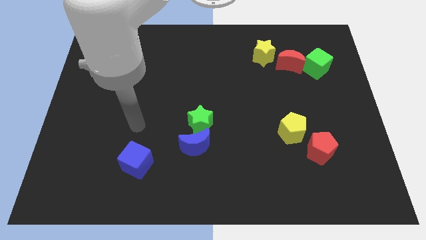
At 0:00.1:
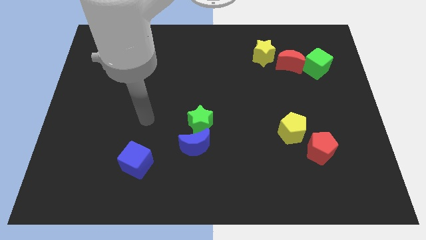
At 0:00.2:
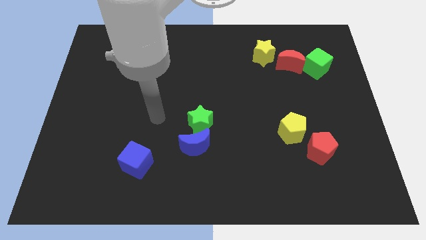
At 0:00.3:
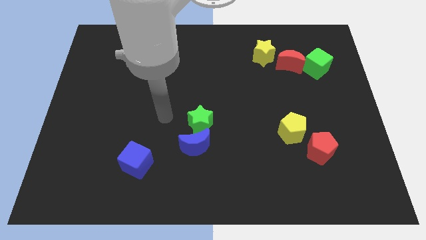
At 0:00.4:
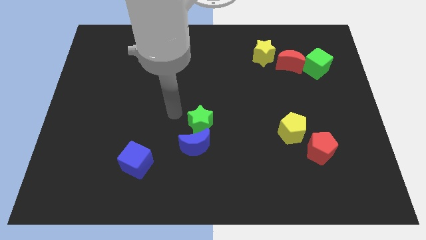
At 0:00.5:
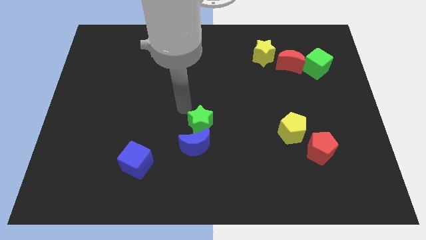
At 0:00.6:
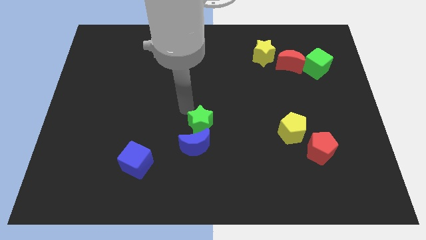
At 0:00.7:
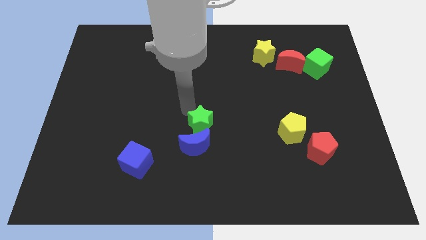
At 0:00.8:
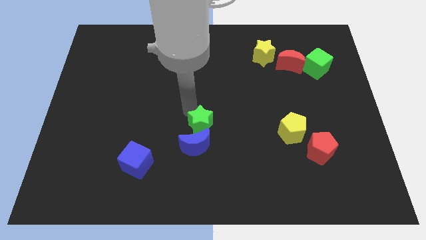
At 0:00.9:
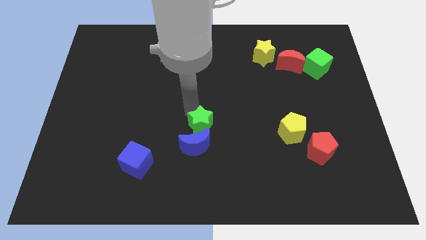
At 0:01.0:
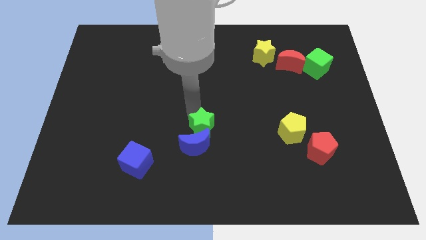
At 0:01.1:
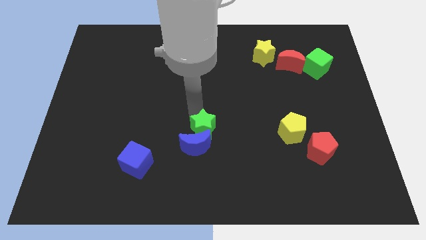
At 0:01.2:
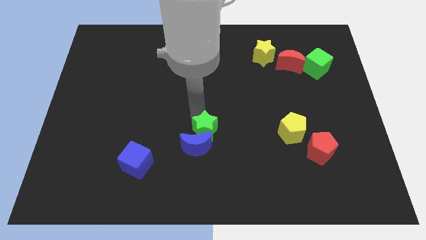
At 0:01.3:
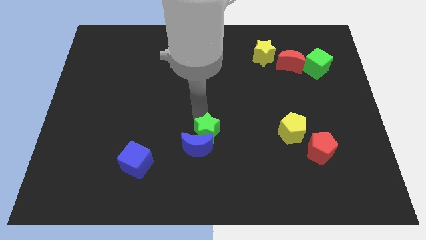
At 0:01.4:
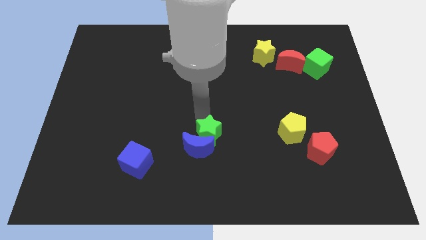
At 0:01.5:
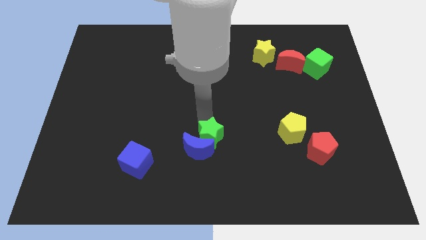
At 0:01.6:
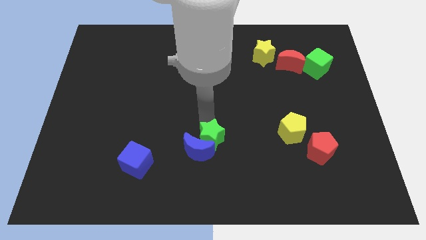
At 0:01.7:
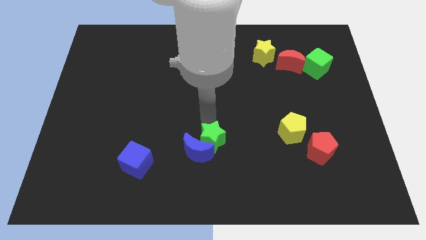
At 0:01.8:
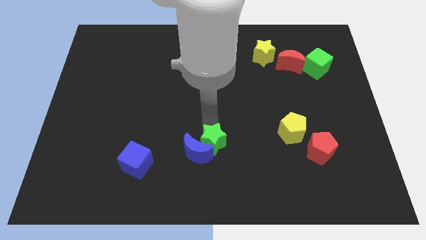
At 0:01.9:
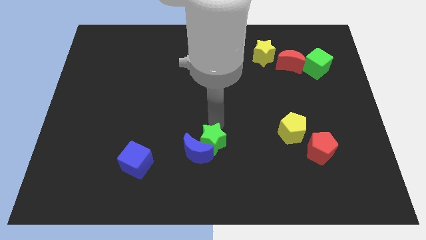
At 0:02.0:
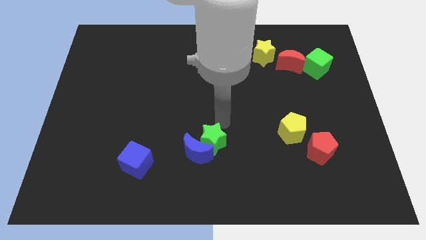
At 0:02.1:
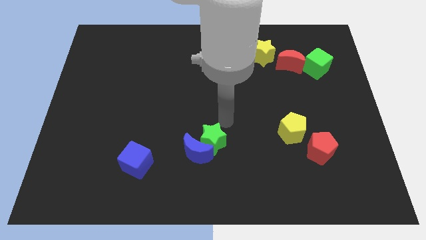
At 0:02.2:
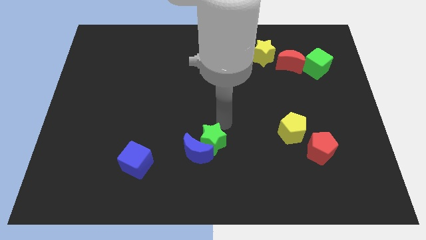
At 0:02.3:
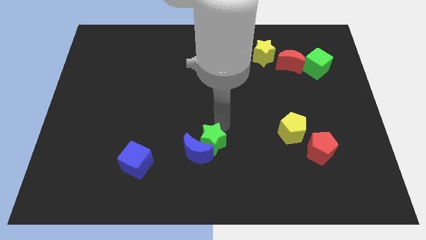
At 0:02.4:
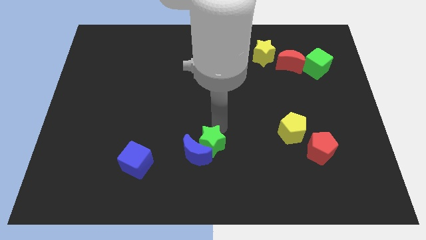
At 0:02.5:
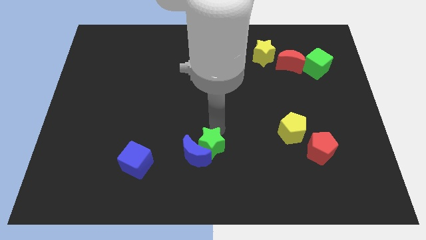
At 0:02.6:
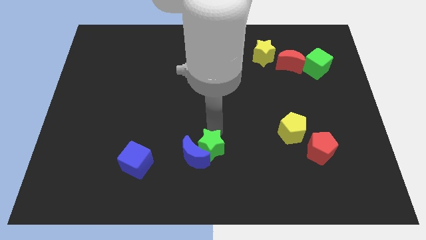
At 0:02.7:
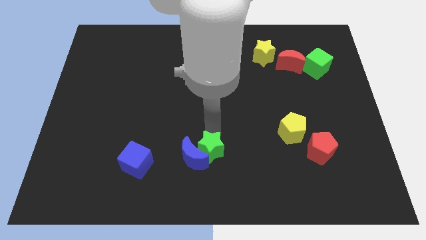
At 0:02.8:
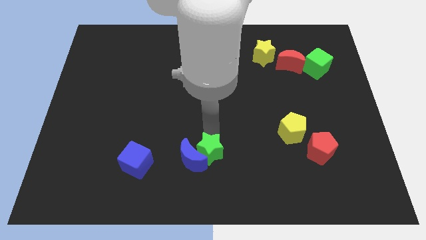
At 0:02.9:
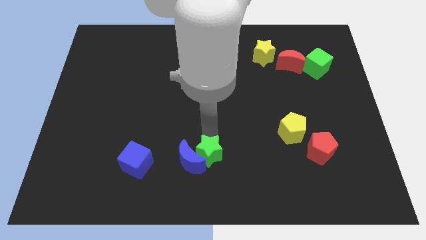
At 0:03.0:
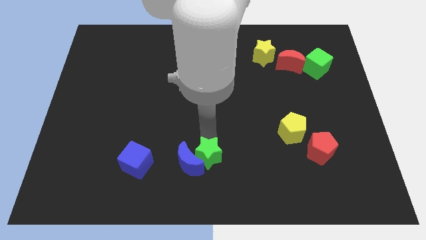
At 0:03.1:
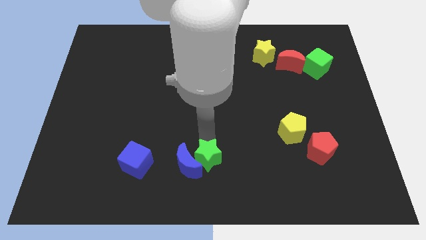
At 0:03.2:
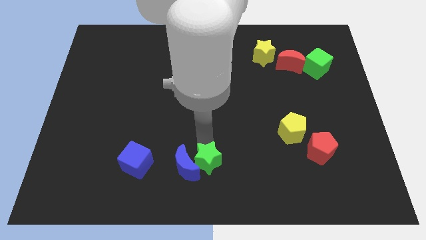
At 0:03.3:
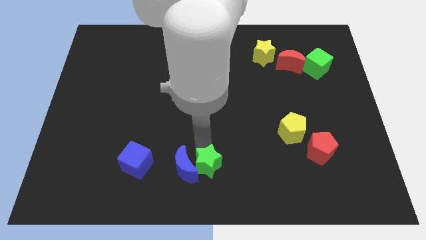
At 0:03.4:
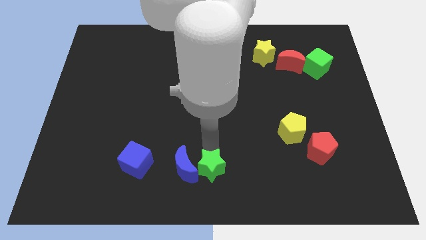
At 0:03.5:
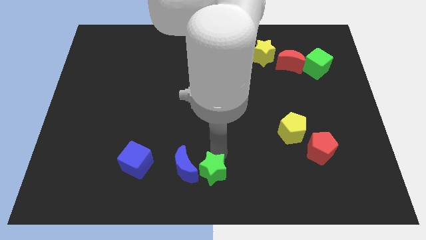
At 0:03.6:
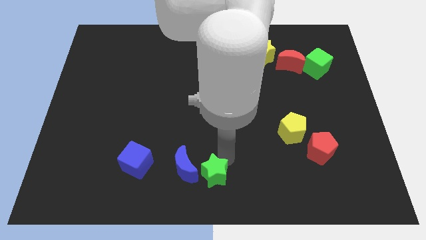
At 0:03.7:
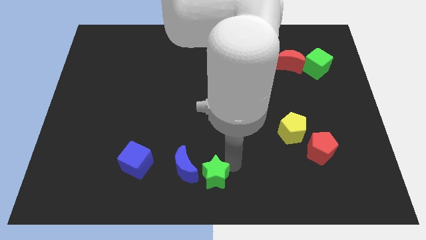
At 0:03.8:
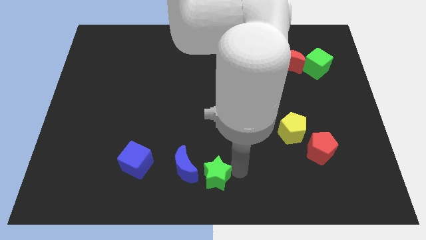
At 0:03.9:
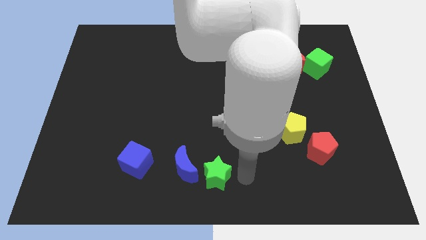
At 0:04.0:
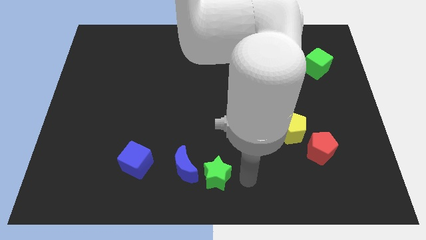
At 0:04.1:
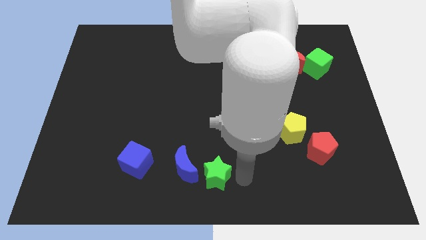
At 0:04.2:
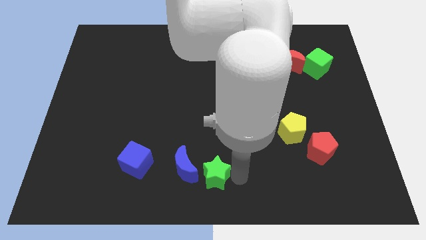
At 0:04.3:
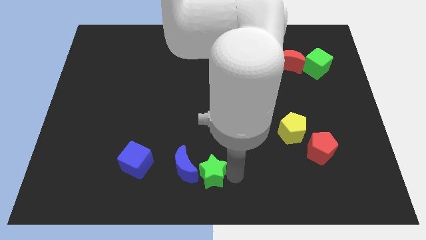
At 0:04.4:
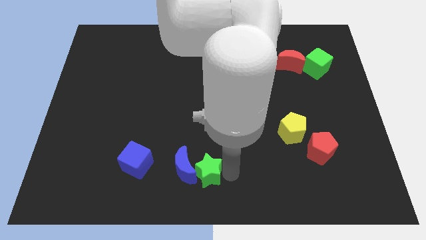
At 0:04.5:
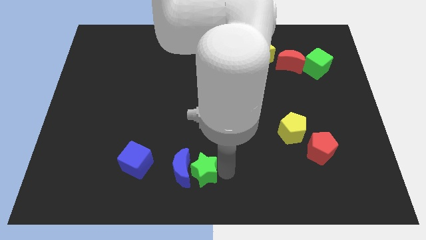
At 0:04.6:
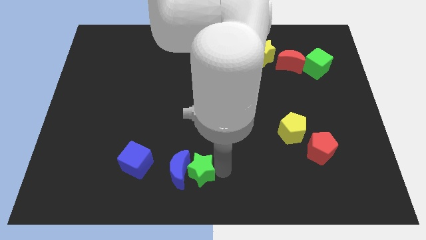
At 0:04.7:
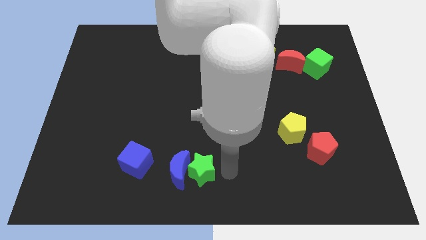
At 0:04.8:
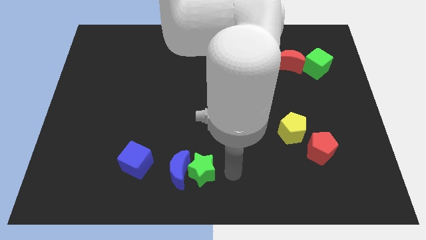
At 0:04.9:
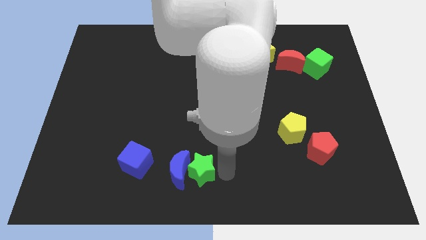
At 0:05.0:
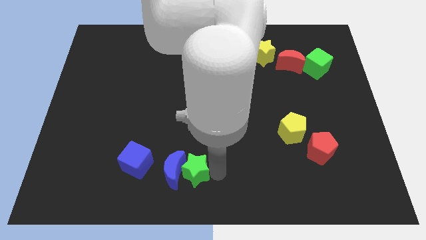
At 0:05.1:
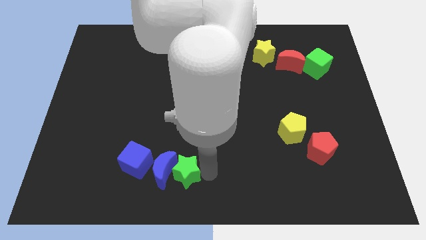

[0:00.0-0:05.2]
move the green star down and left somewhat

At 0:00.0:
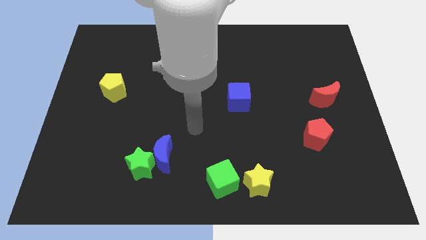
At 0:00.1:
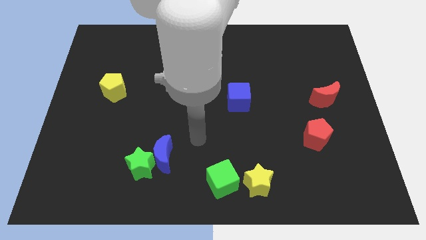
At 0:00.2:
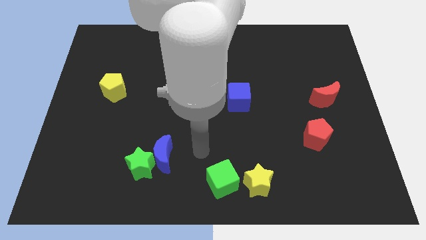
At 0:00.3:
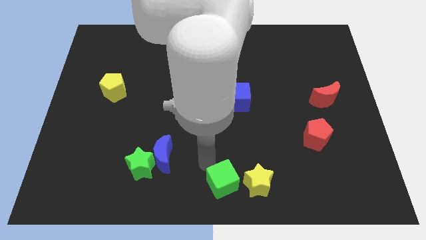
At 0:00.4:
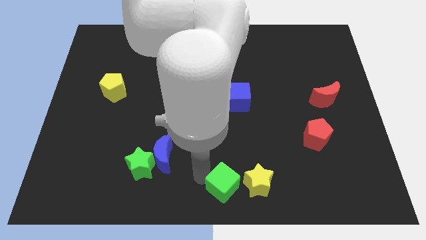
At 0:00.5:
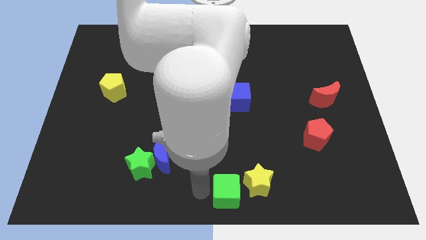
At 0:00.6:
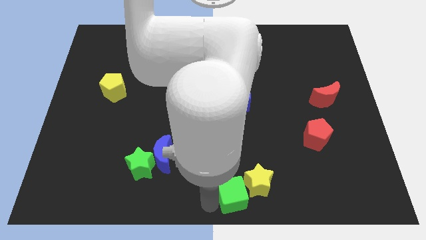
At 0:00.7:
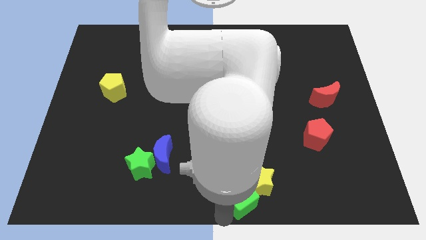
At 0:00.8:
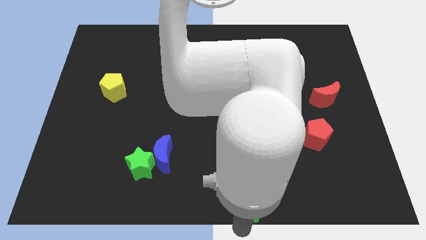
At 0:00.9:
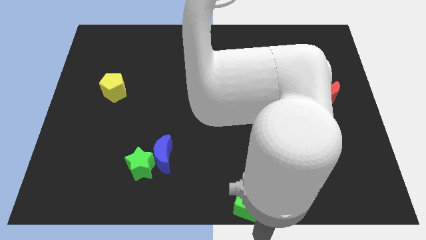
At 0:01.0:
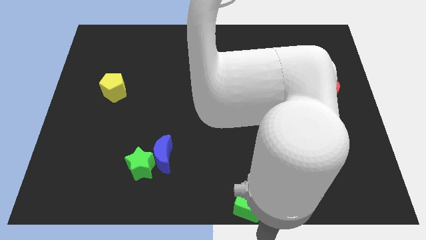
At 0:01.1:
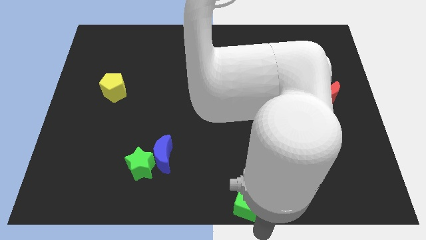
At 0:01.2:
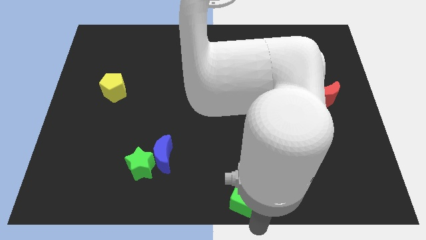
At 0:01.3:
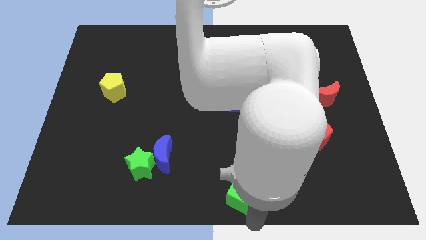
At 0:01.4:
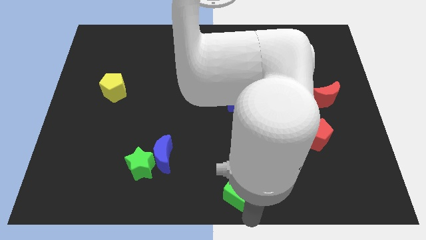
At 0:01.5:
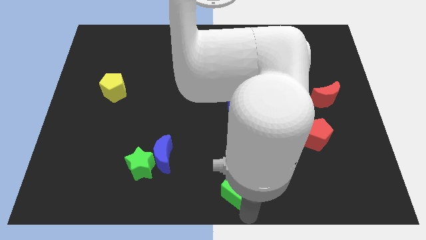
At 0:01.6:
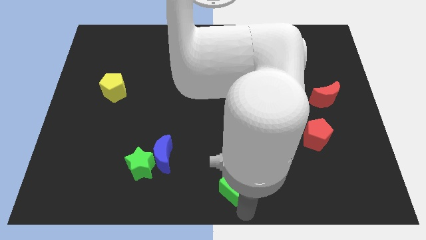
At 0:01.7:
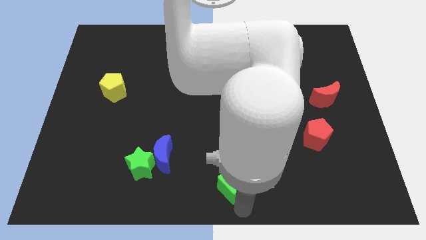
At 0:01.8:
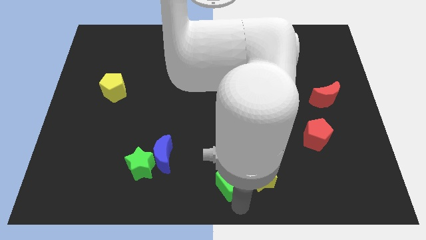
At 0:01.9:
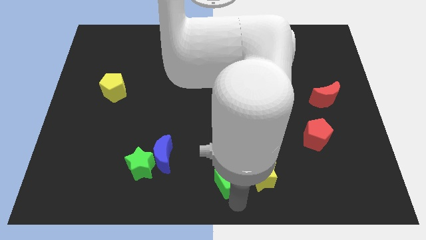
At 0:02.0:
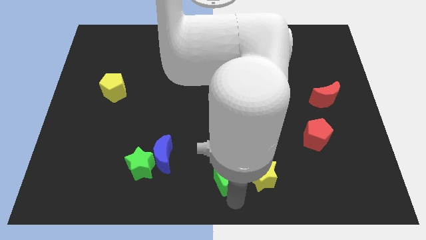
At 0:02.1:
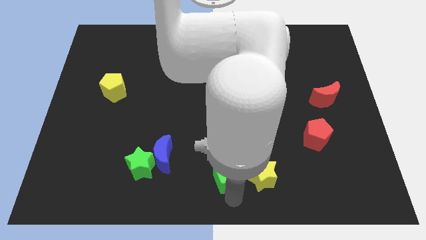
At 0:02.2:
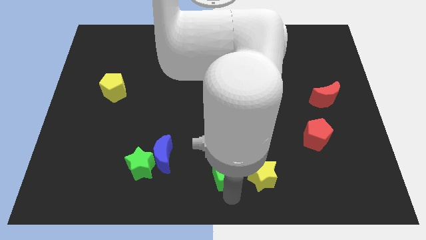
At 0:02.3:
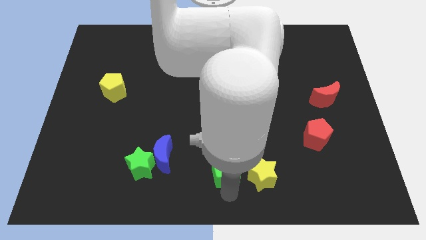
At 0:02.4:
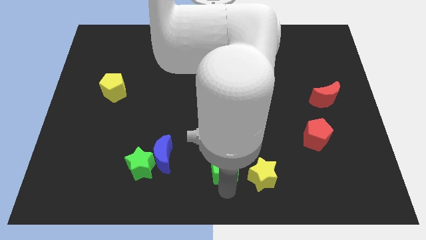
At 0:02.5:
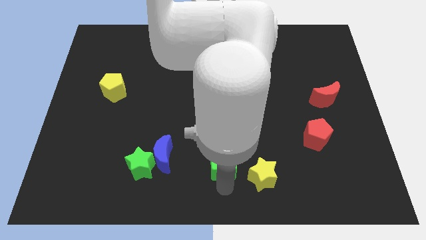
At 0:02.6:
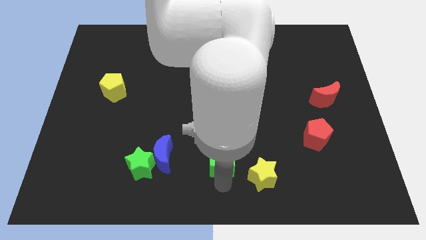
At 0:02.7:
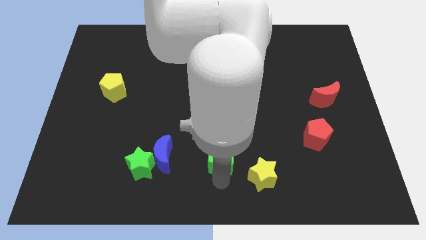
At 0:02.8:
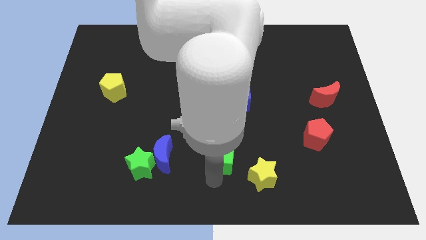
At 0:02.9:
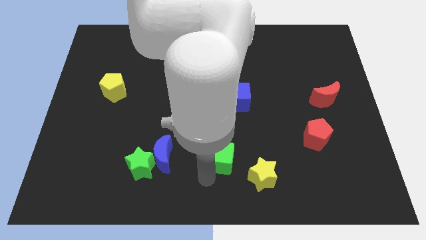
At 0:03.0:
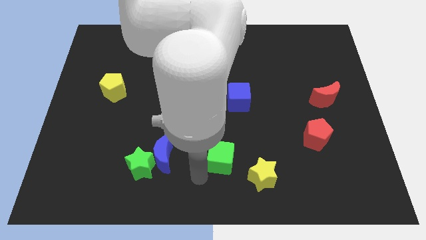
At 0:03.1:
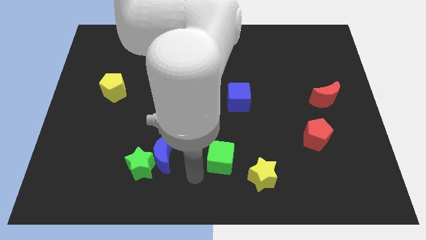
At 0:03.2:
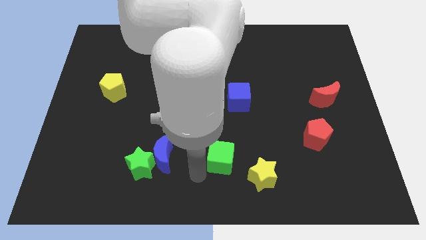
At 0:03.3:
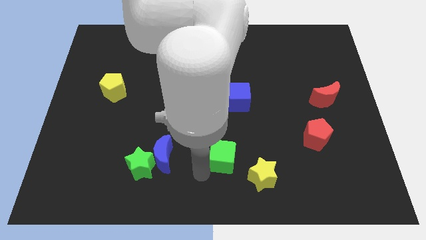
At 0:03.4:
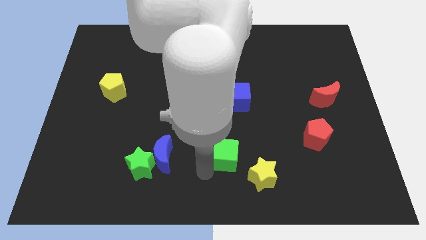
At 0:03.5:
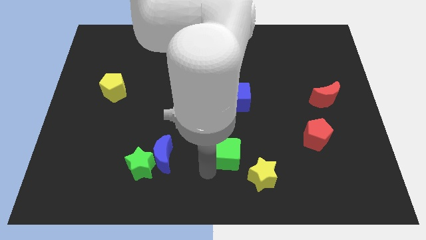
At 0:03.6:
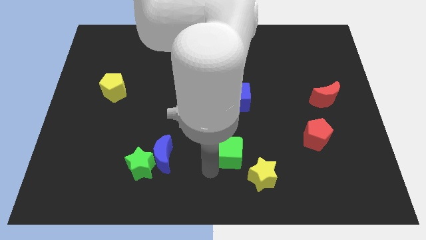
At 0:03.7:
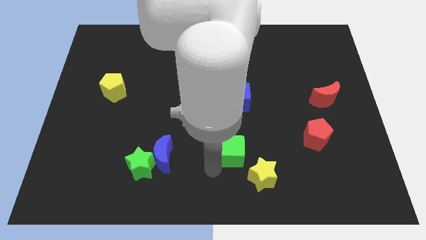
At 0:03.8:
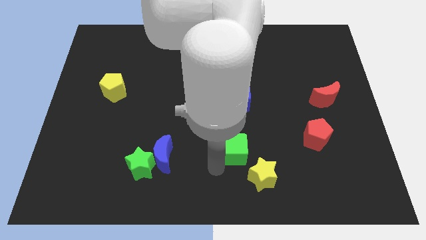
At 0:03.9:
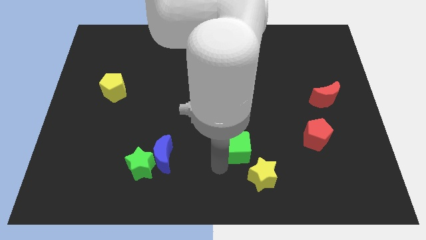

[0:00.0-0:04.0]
slightly push the green cube up and then to the right
